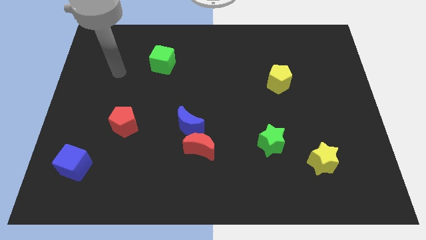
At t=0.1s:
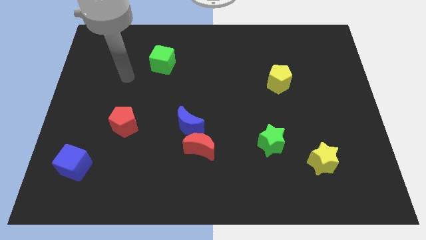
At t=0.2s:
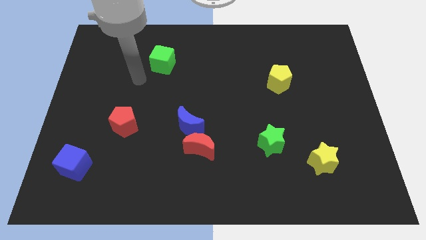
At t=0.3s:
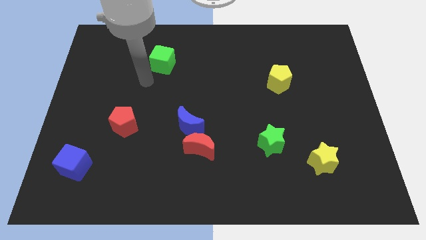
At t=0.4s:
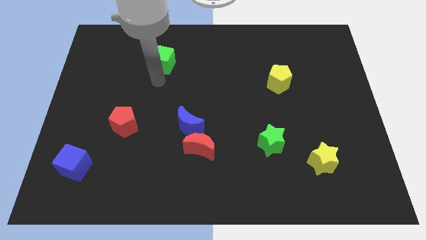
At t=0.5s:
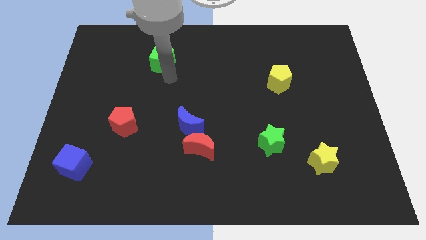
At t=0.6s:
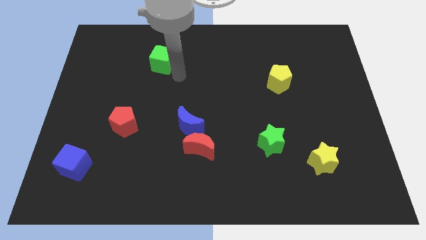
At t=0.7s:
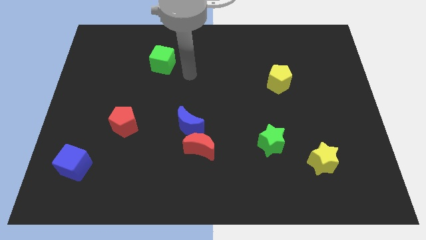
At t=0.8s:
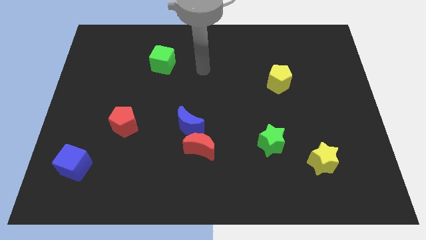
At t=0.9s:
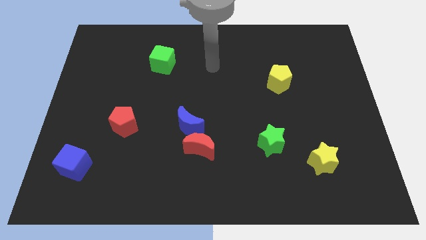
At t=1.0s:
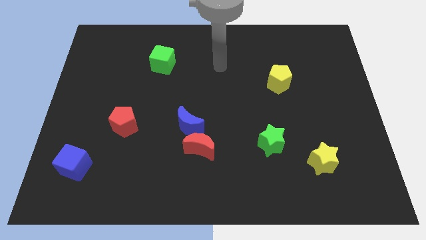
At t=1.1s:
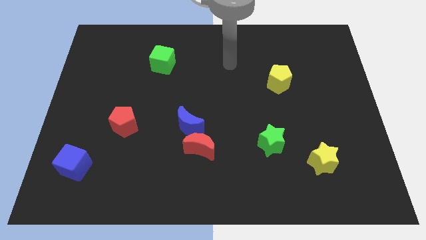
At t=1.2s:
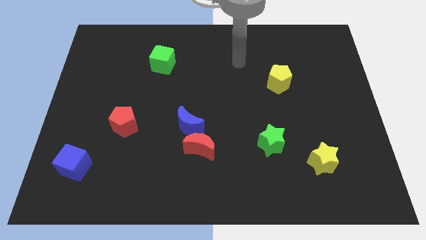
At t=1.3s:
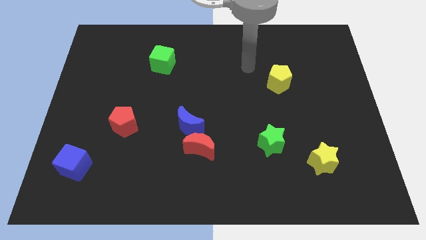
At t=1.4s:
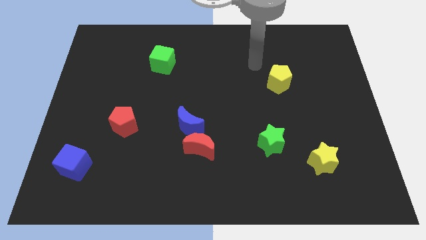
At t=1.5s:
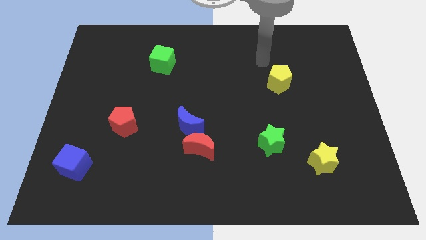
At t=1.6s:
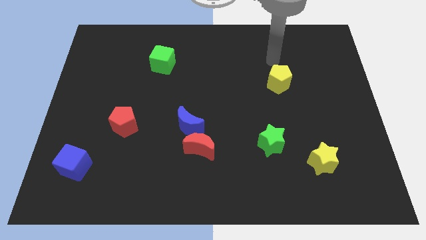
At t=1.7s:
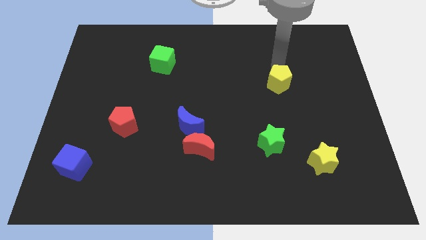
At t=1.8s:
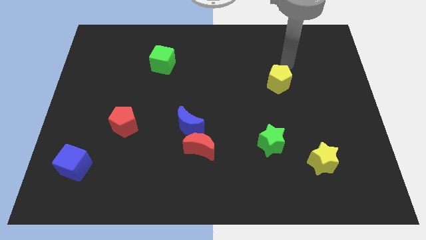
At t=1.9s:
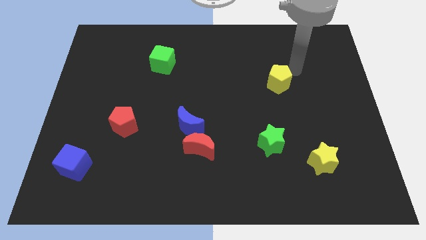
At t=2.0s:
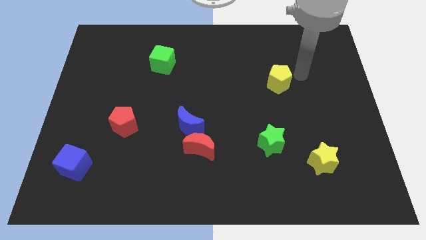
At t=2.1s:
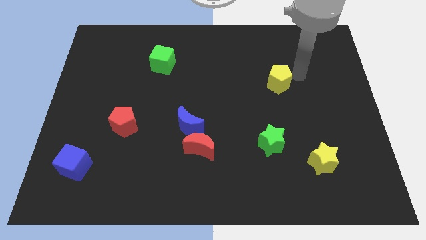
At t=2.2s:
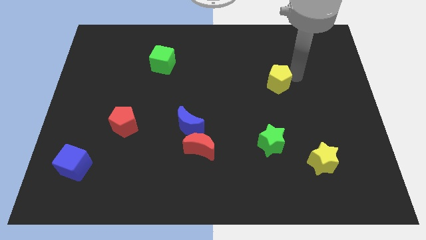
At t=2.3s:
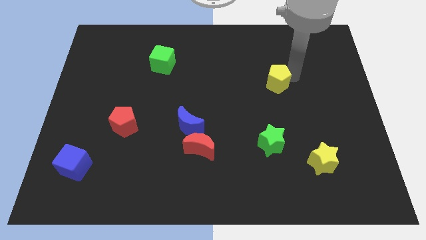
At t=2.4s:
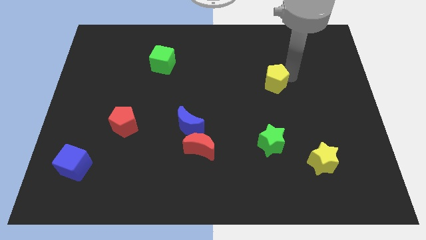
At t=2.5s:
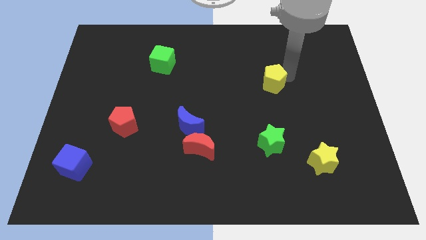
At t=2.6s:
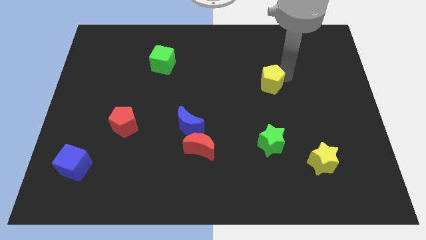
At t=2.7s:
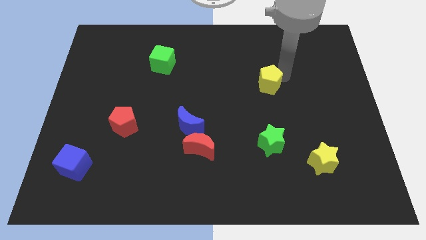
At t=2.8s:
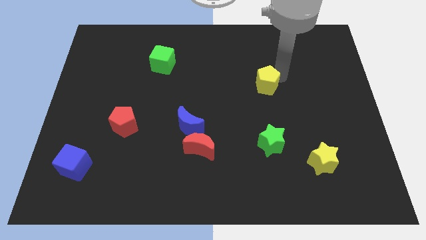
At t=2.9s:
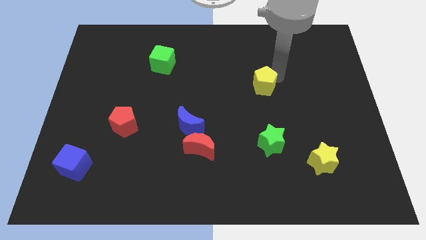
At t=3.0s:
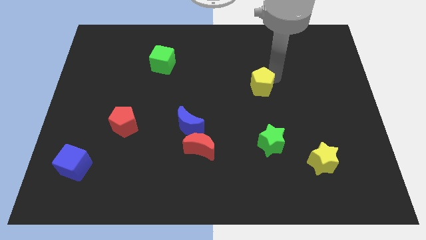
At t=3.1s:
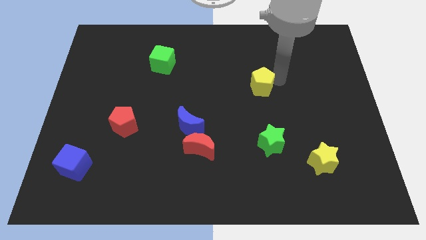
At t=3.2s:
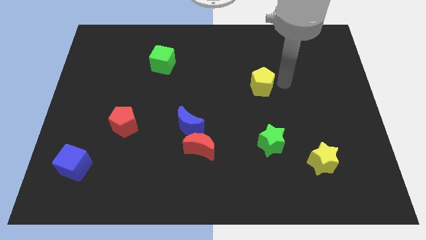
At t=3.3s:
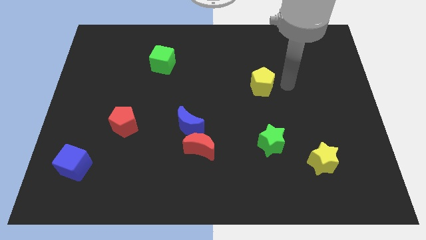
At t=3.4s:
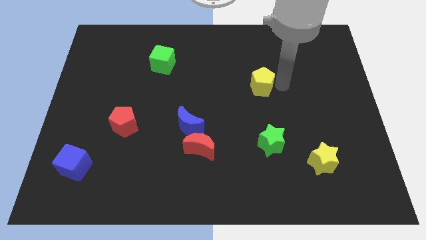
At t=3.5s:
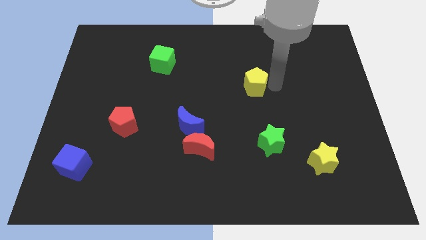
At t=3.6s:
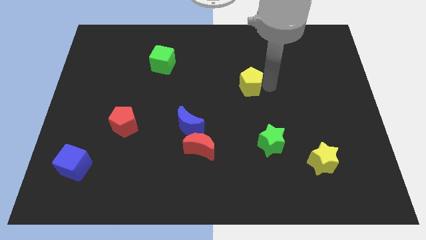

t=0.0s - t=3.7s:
slightly slide the yellow pentagon left

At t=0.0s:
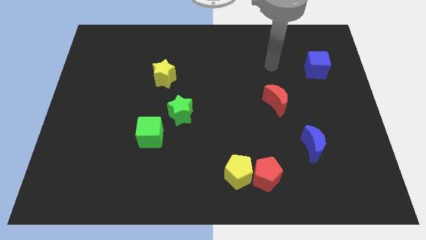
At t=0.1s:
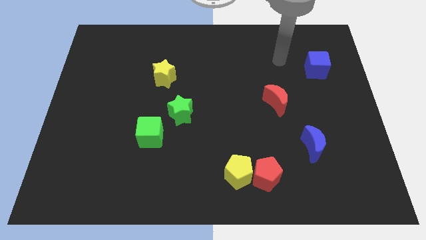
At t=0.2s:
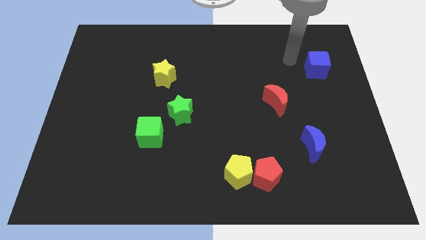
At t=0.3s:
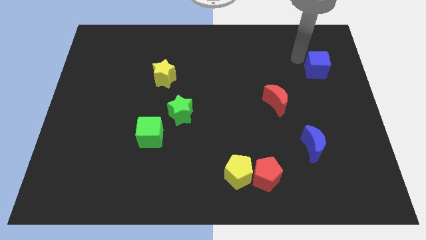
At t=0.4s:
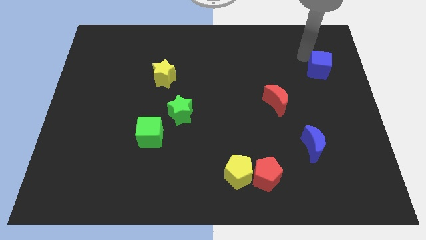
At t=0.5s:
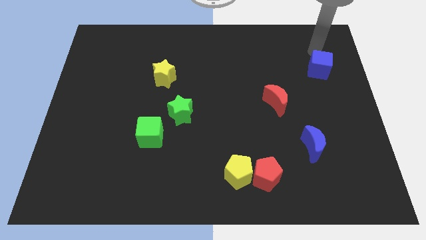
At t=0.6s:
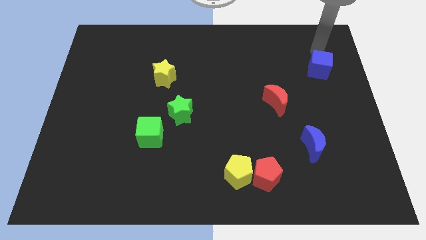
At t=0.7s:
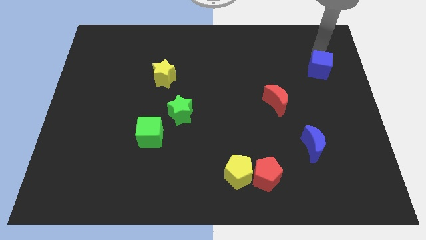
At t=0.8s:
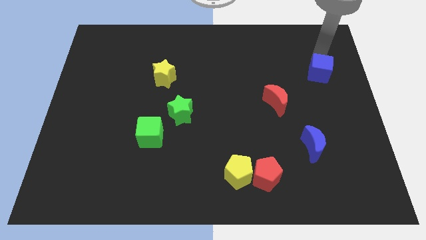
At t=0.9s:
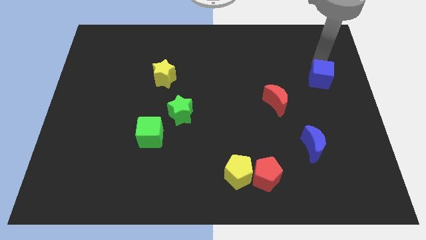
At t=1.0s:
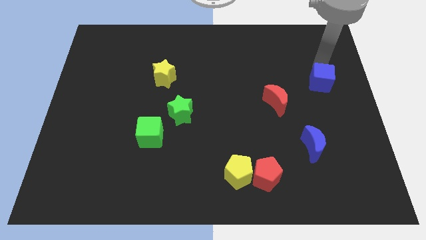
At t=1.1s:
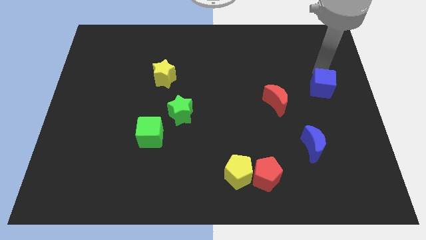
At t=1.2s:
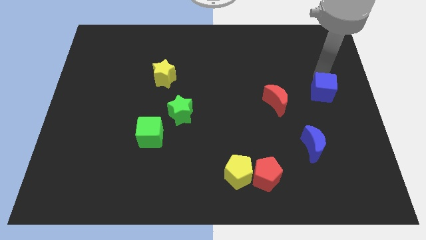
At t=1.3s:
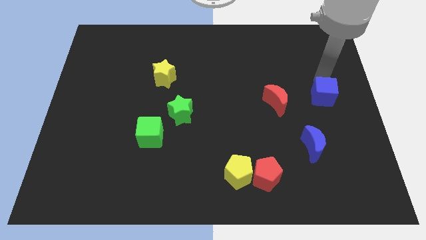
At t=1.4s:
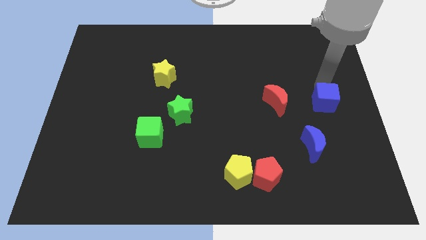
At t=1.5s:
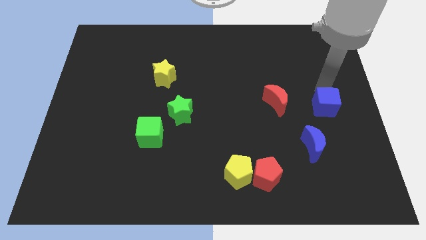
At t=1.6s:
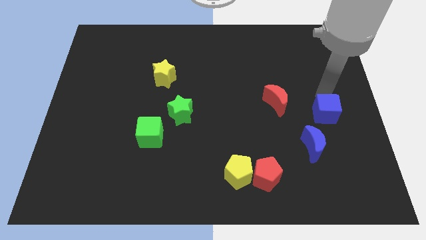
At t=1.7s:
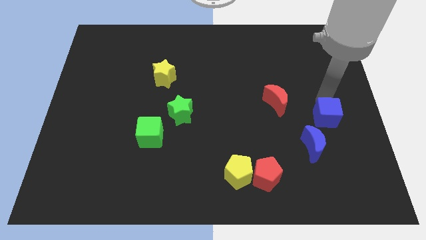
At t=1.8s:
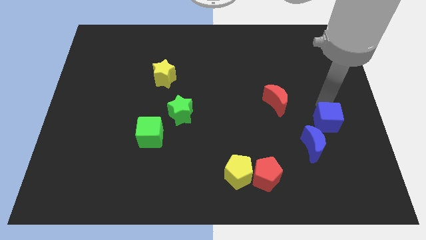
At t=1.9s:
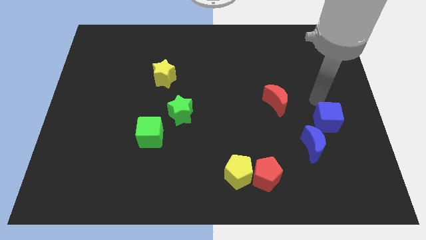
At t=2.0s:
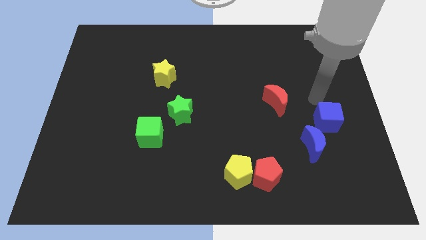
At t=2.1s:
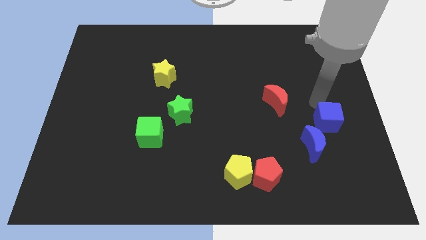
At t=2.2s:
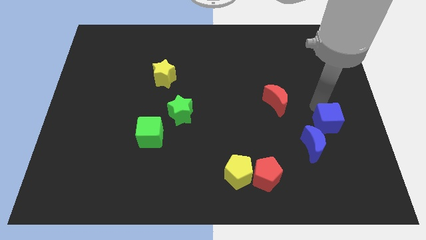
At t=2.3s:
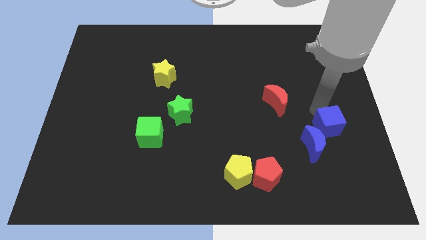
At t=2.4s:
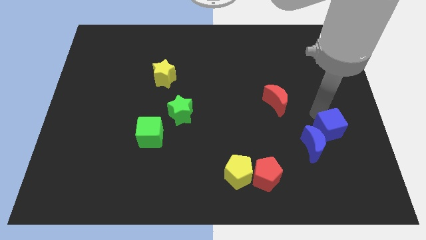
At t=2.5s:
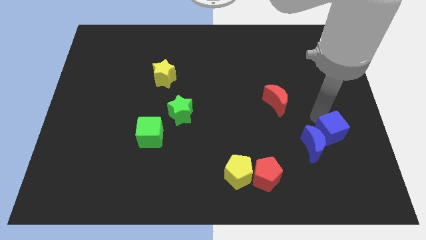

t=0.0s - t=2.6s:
push the blue cube downwards

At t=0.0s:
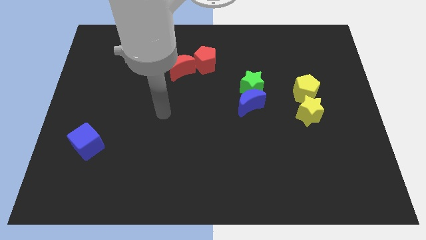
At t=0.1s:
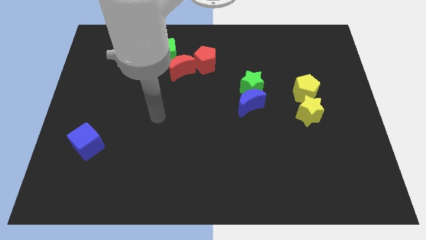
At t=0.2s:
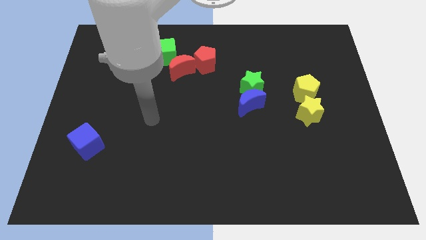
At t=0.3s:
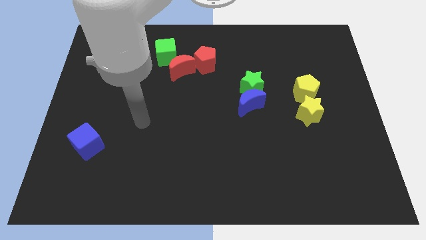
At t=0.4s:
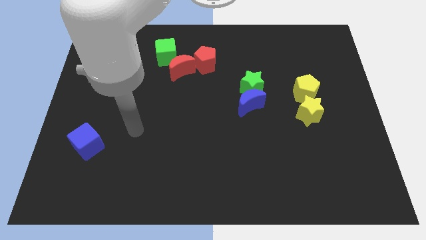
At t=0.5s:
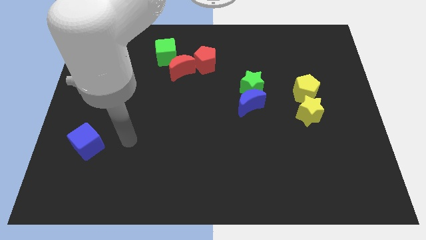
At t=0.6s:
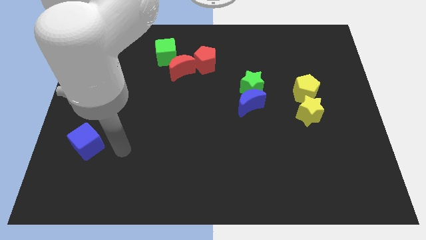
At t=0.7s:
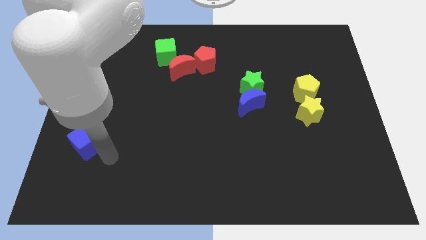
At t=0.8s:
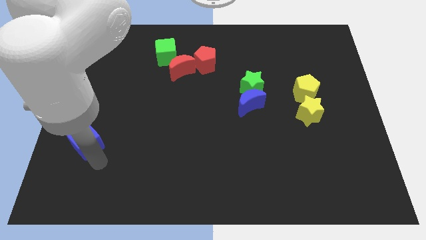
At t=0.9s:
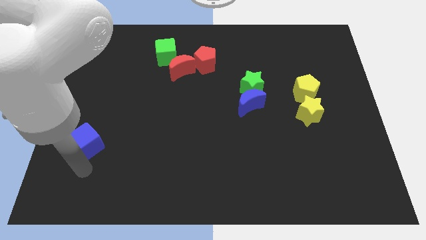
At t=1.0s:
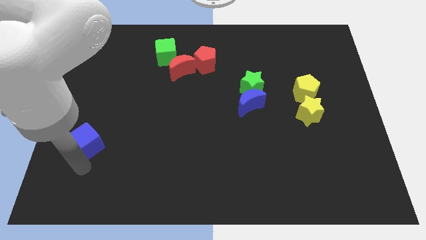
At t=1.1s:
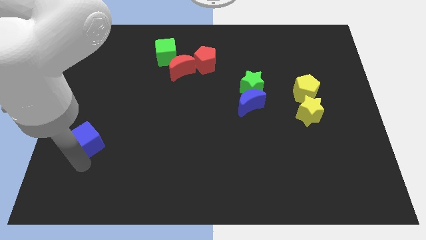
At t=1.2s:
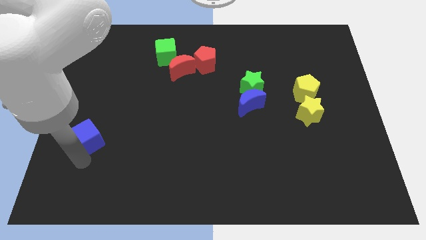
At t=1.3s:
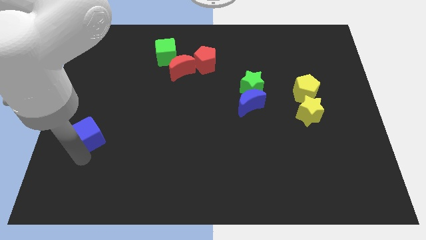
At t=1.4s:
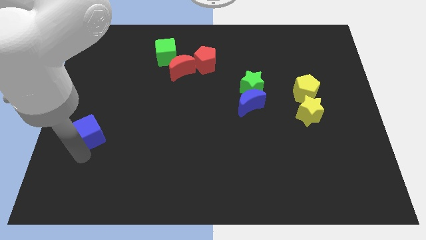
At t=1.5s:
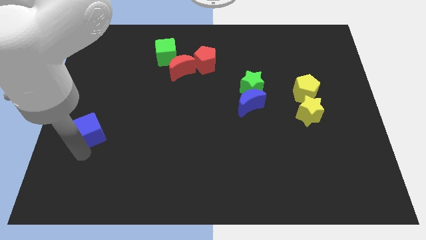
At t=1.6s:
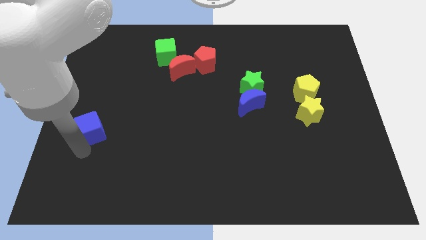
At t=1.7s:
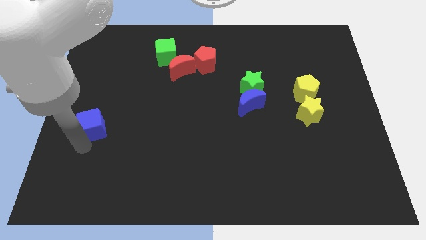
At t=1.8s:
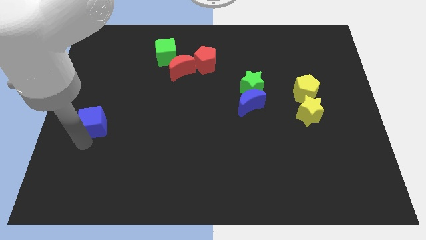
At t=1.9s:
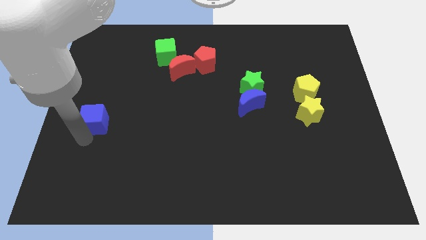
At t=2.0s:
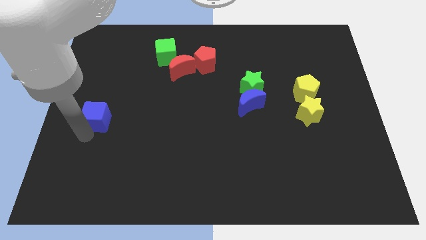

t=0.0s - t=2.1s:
slightly move the blue cube up
